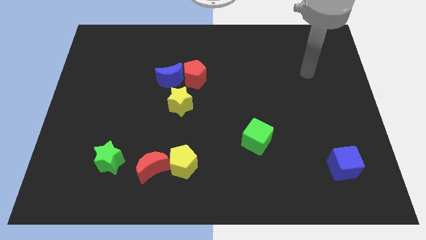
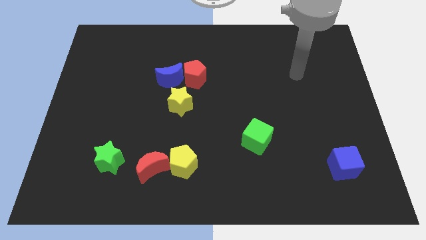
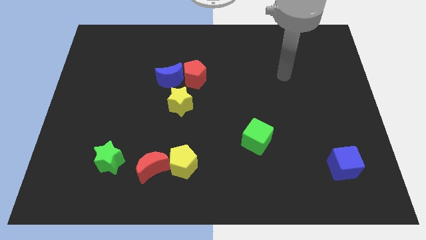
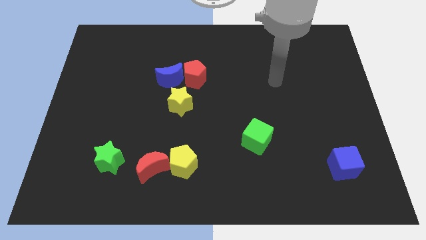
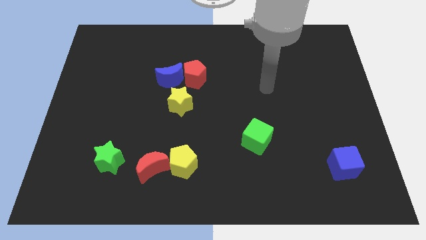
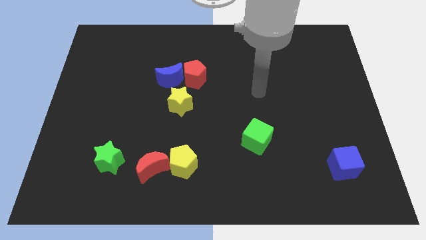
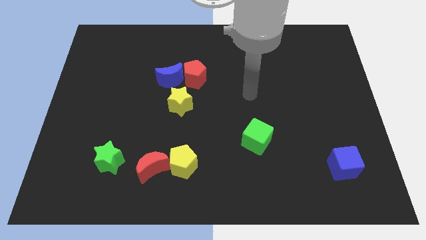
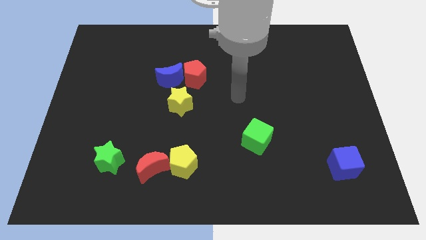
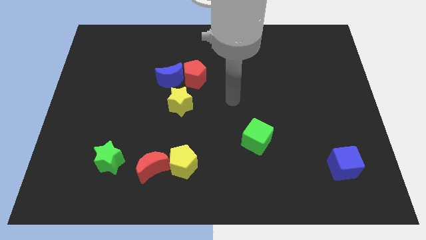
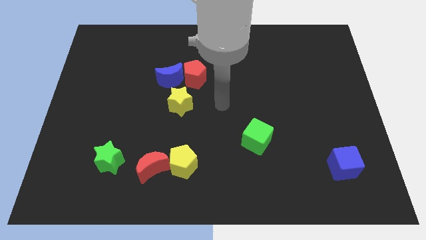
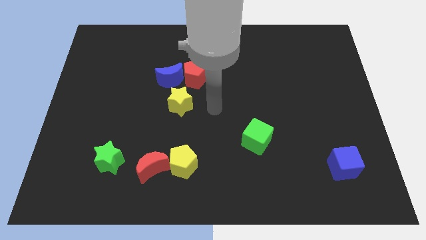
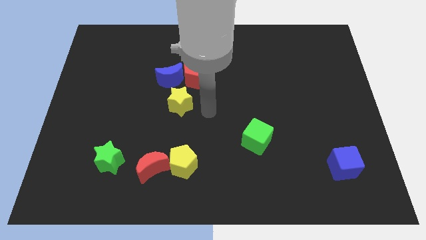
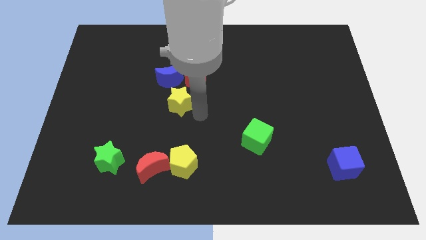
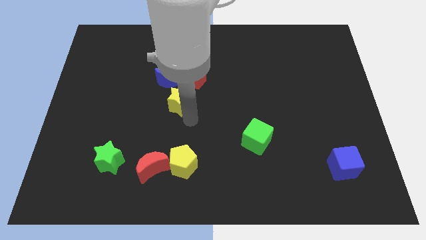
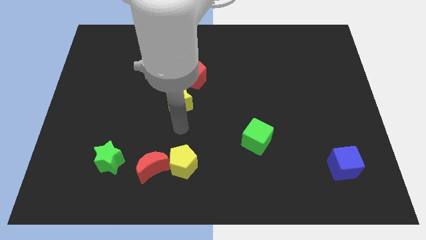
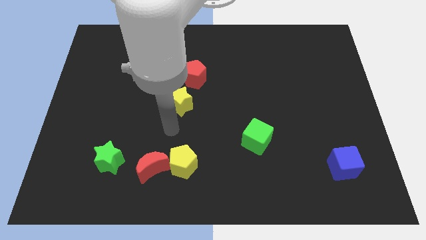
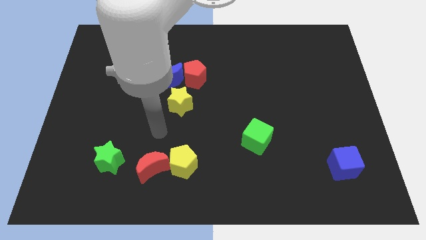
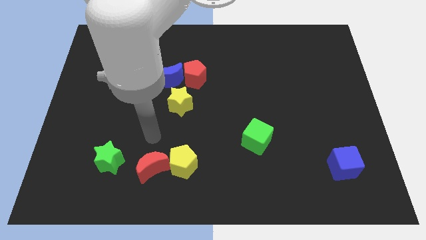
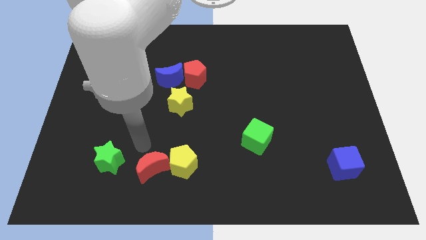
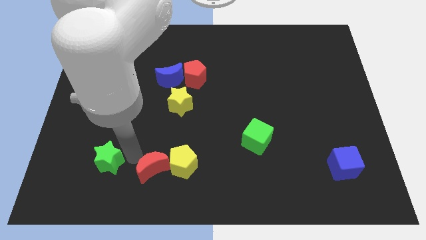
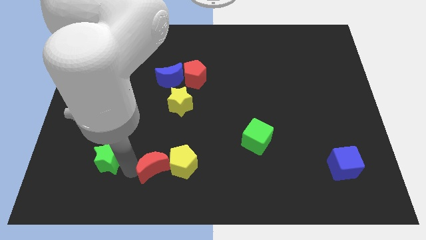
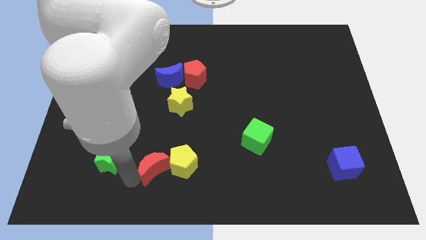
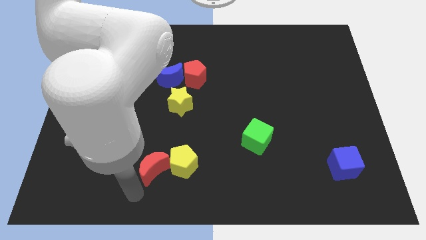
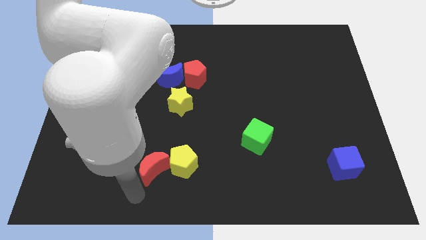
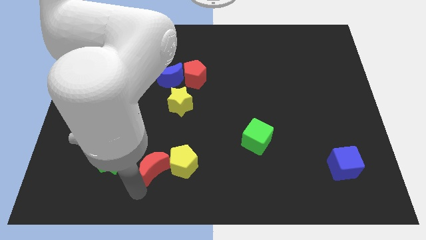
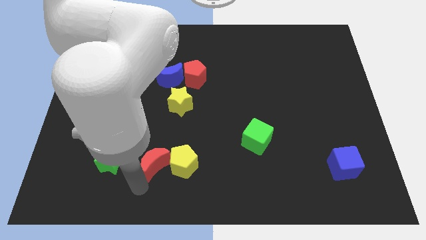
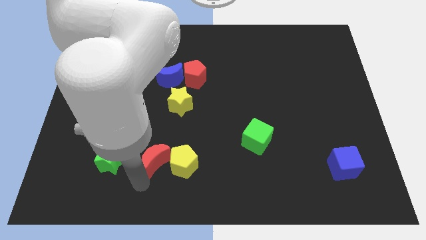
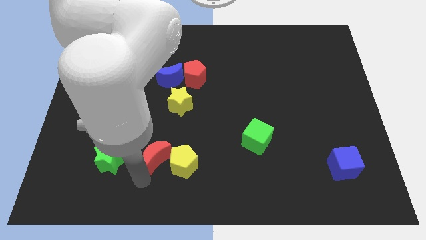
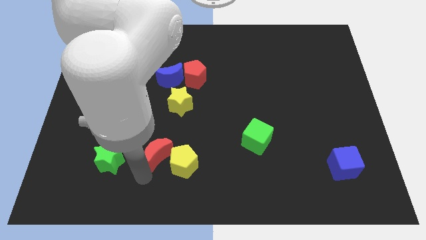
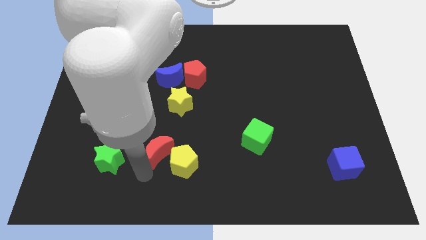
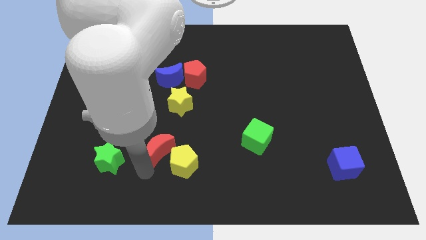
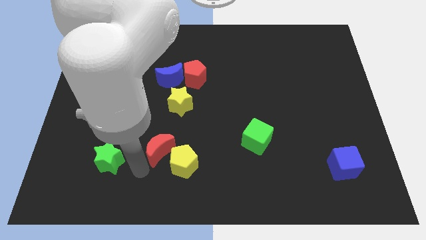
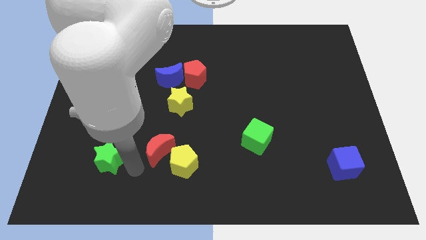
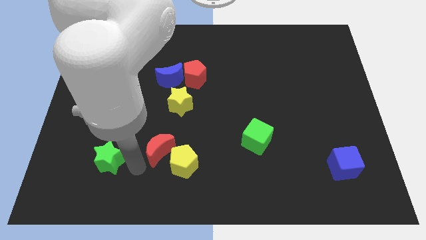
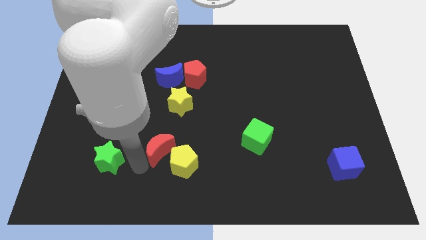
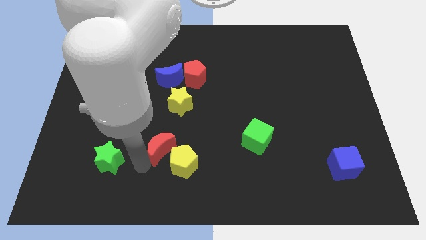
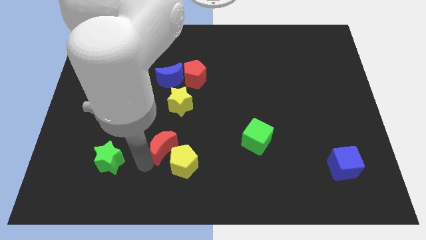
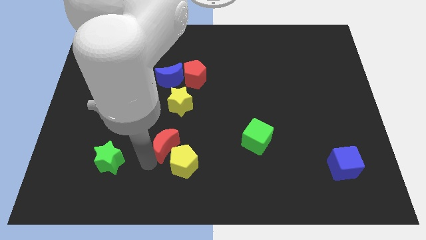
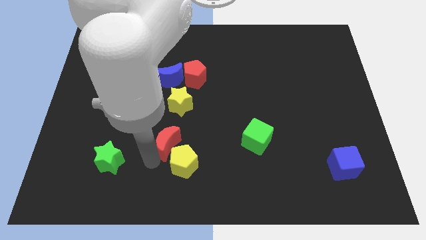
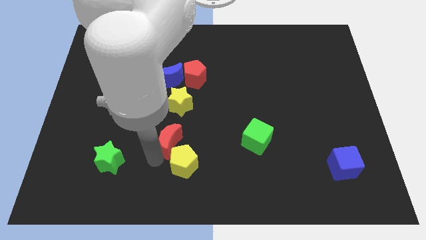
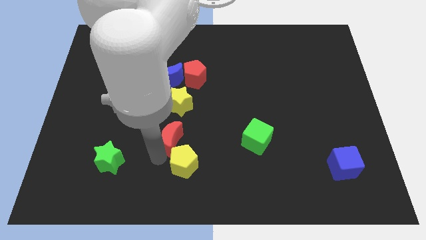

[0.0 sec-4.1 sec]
slightly slide the red moon diagonally upwards and right

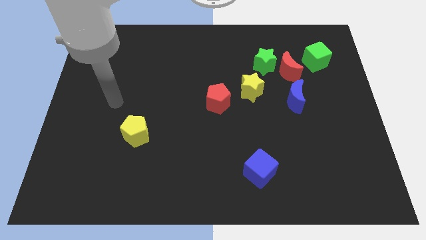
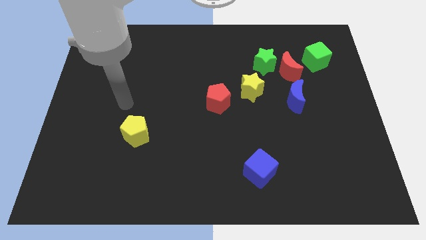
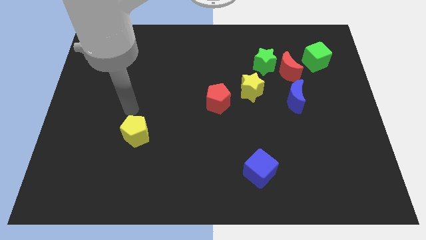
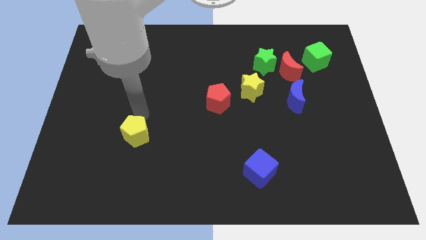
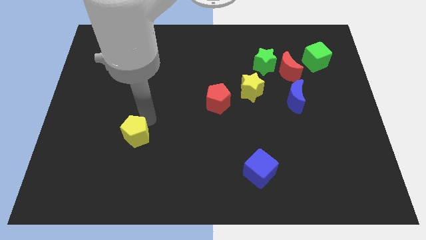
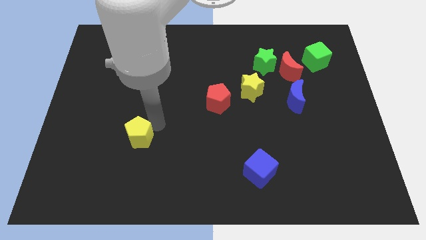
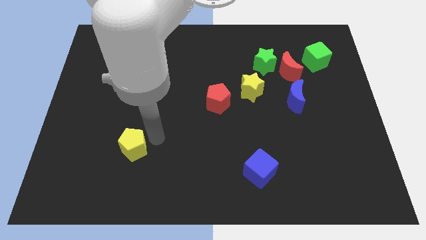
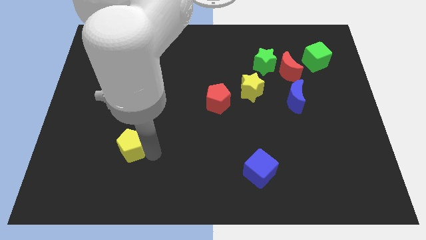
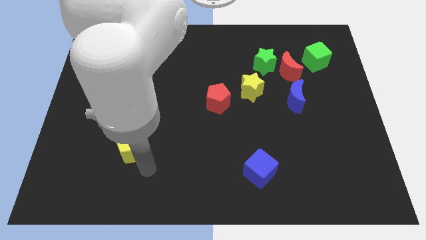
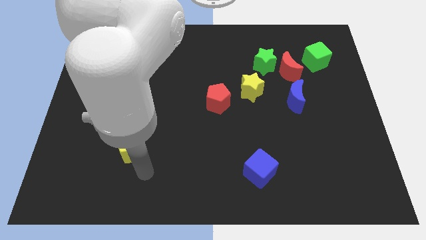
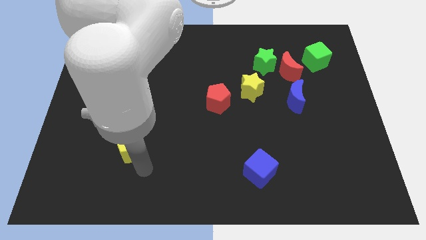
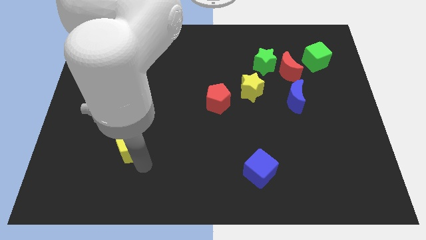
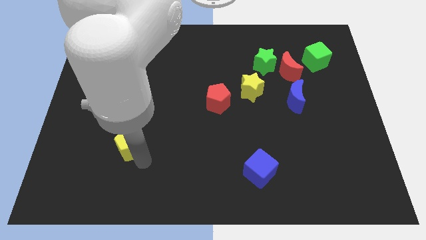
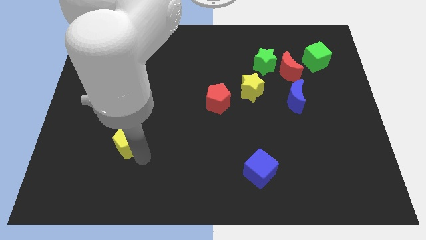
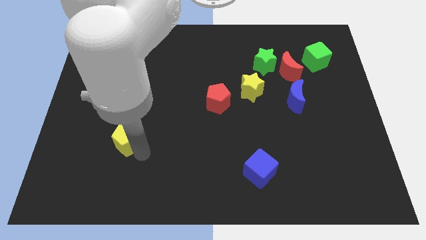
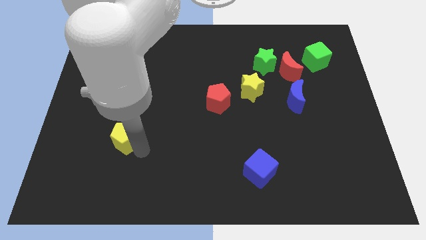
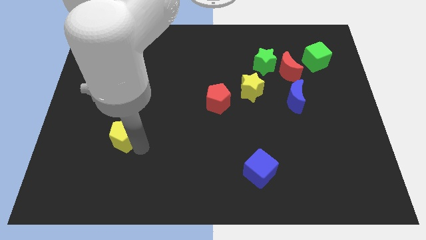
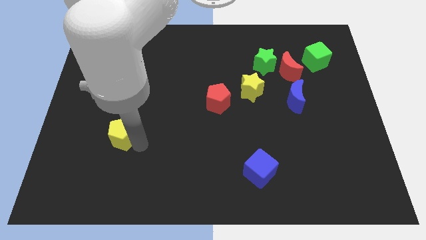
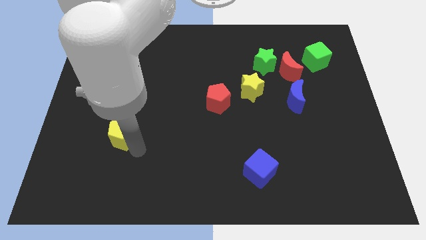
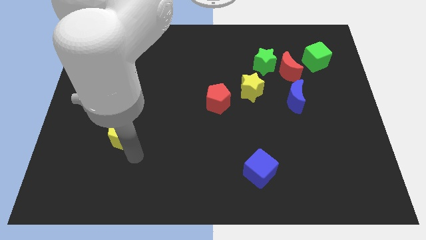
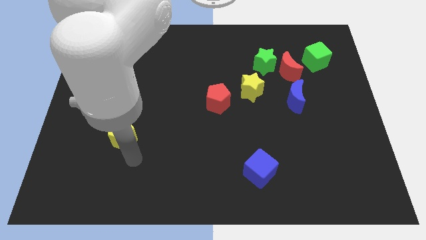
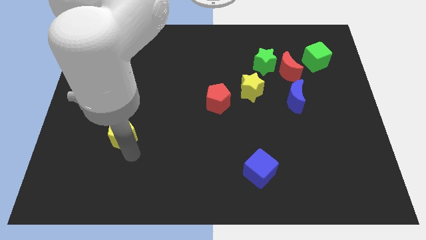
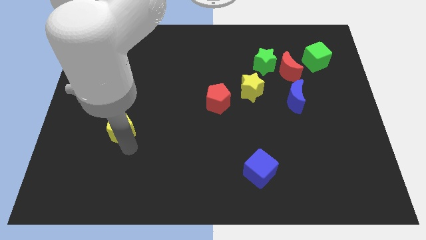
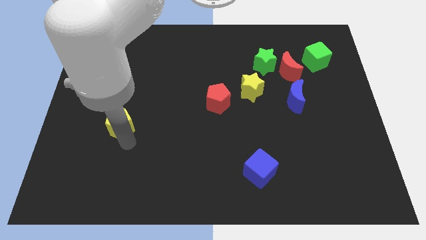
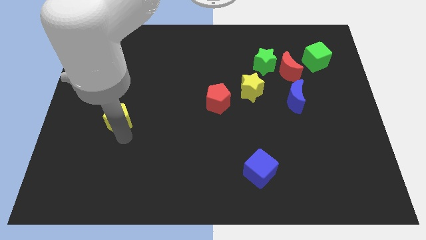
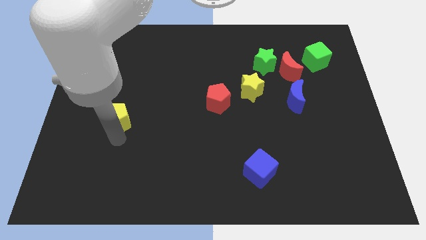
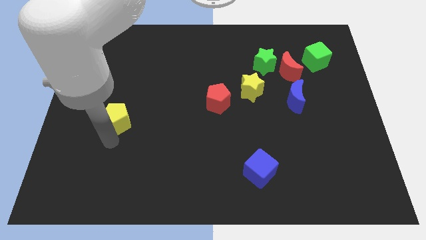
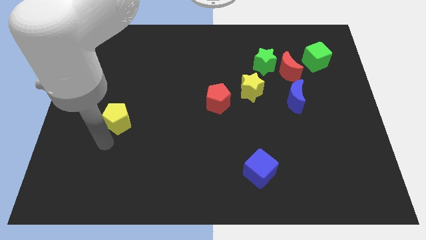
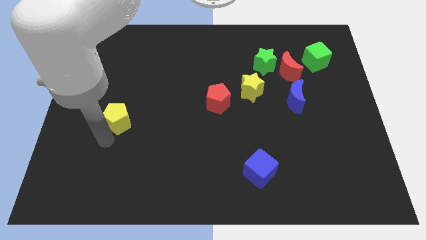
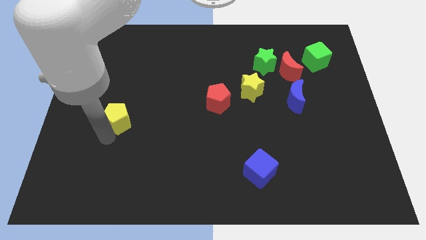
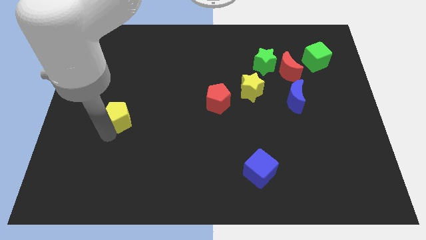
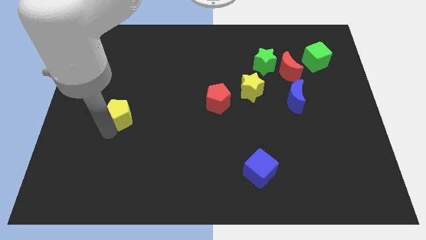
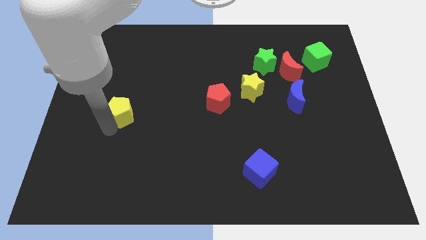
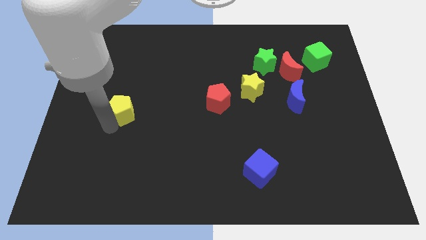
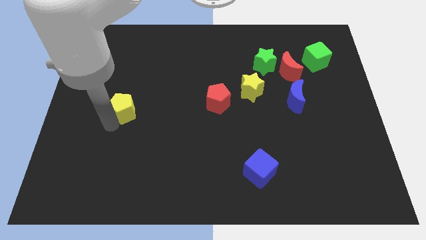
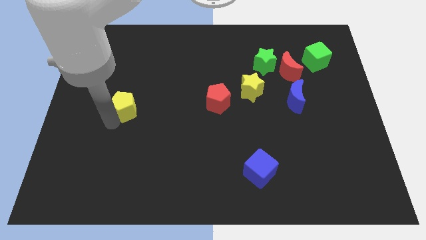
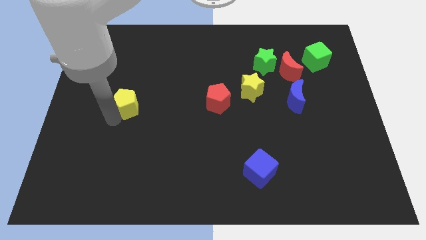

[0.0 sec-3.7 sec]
push the yellow pentagon upwards slightly

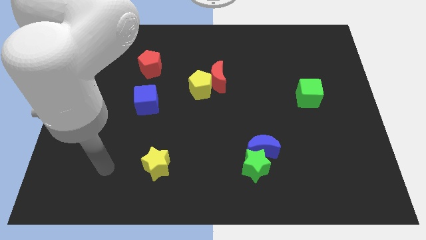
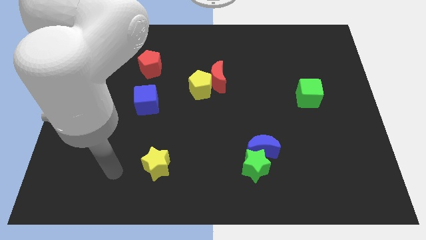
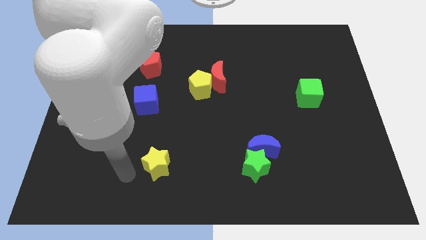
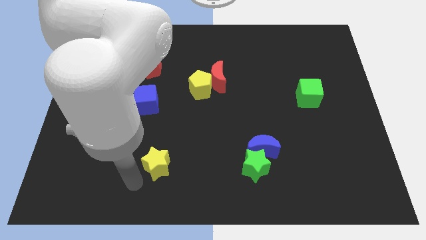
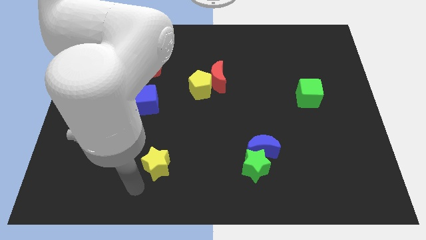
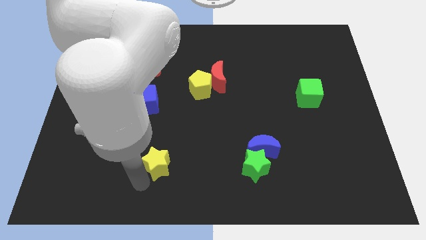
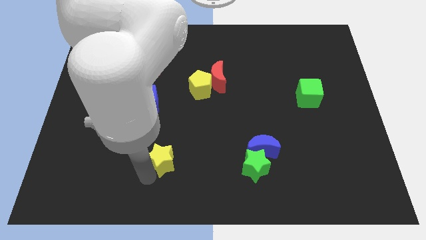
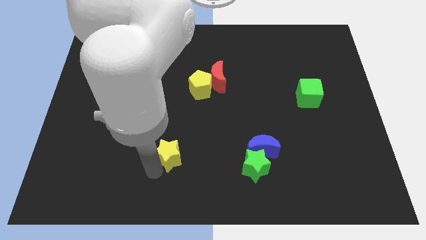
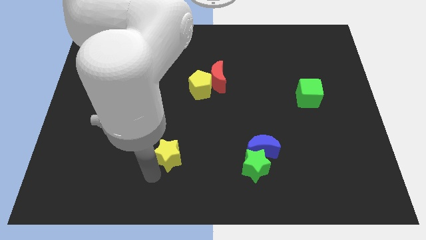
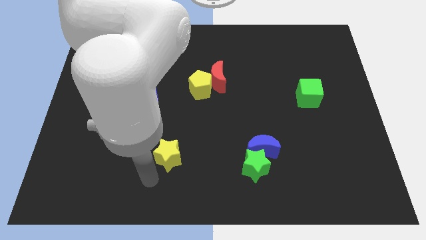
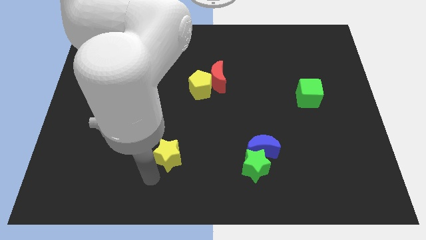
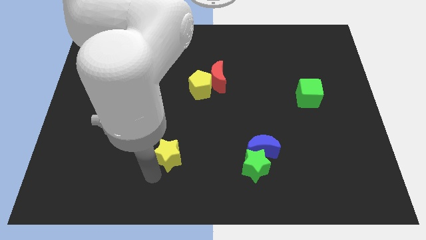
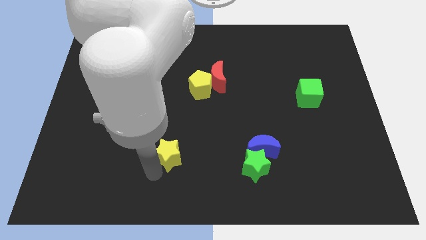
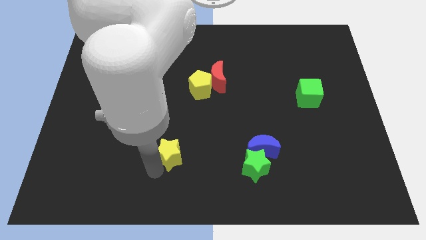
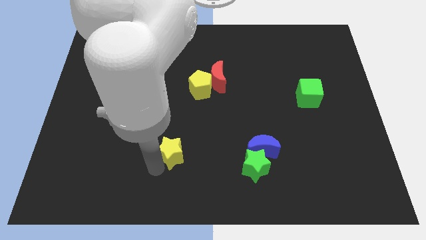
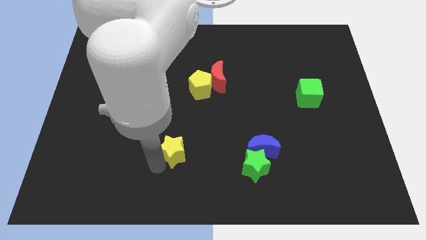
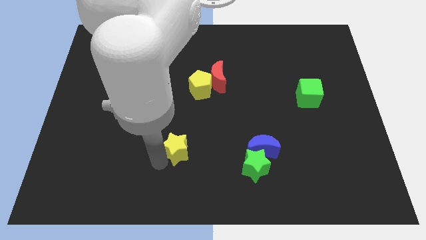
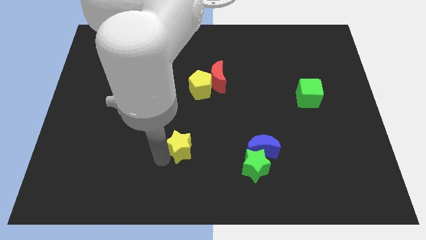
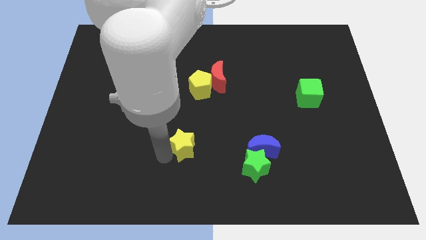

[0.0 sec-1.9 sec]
slide the yellow star diagonally up and right a bit
